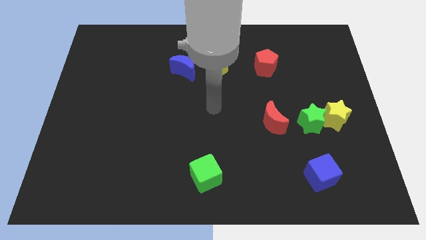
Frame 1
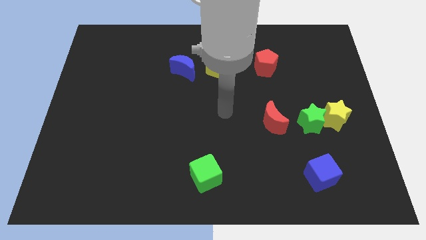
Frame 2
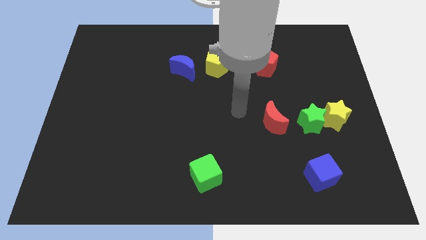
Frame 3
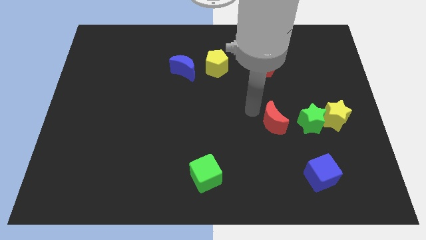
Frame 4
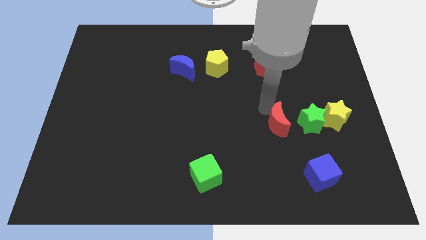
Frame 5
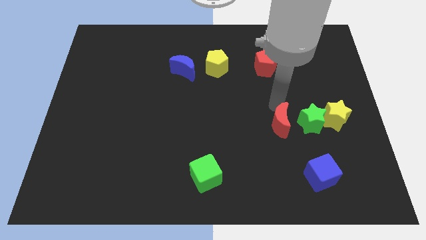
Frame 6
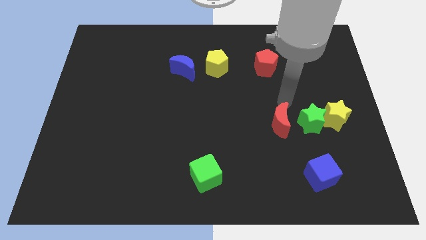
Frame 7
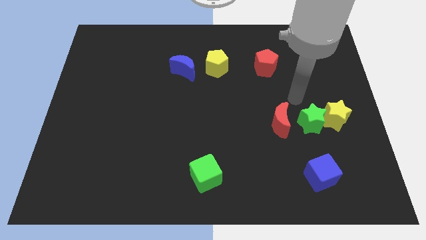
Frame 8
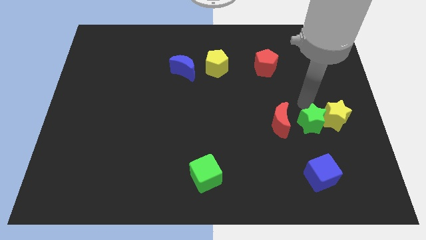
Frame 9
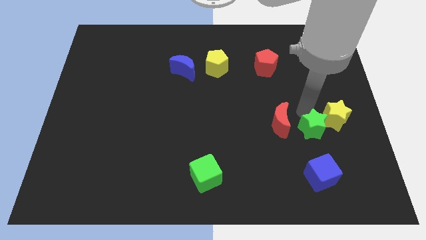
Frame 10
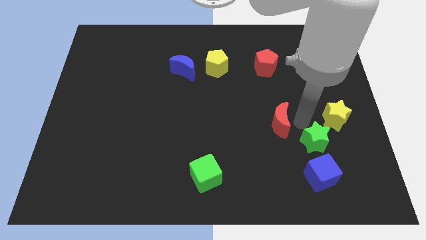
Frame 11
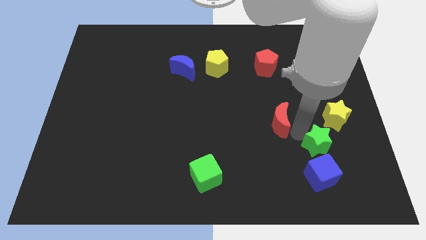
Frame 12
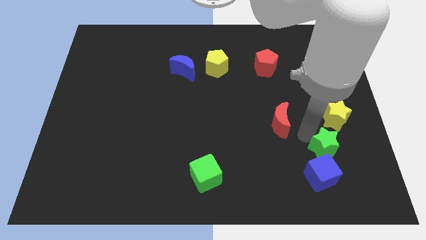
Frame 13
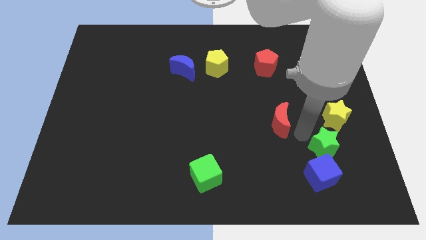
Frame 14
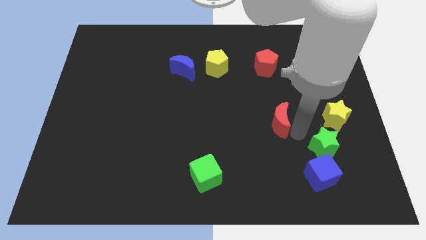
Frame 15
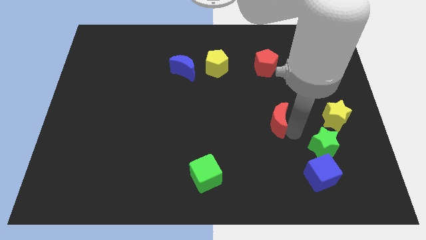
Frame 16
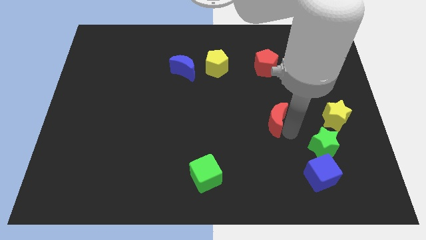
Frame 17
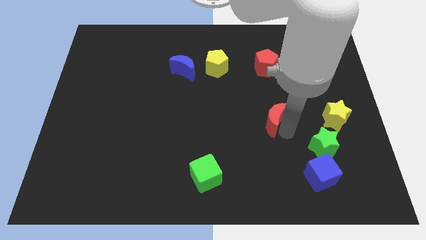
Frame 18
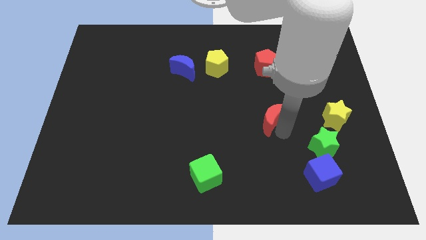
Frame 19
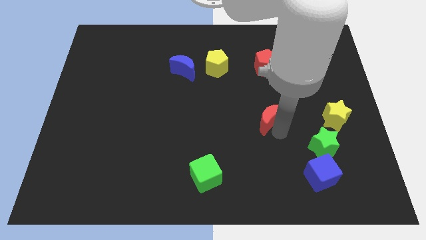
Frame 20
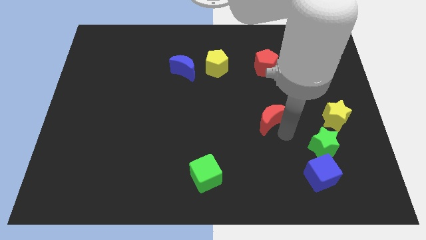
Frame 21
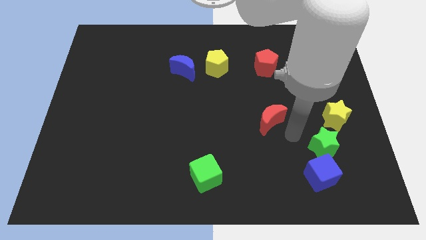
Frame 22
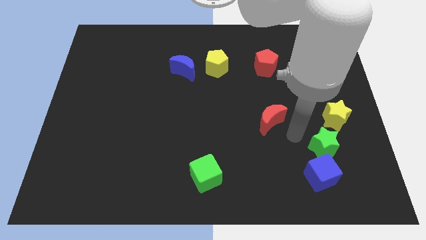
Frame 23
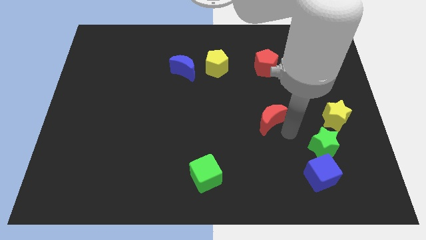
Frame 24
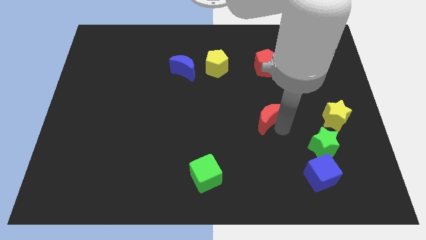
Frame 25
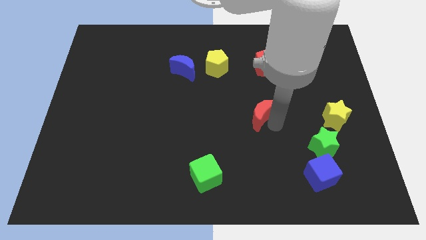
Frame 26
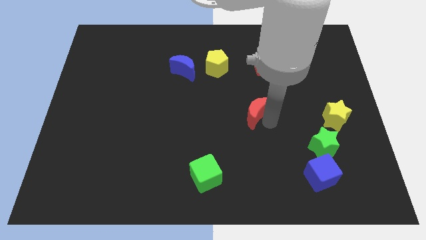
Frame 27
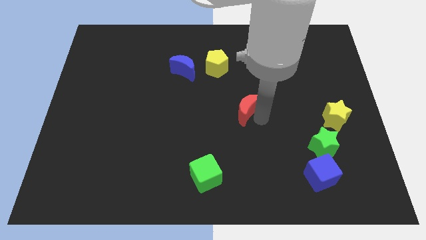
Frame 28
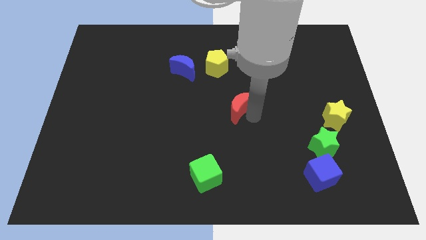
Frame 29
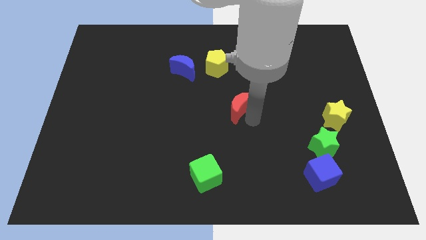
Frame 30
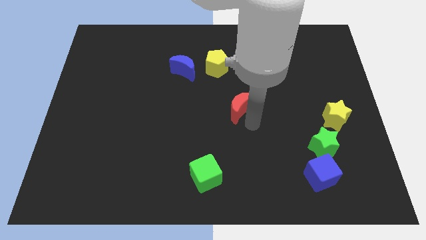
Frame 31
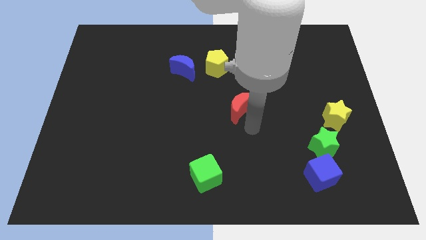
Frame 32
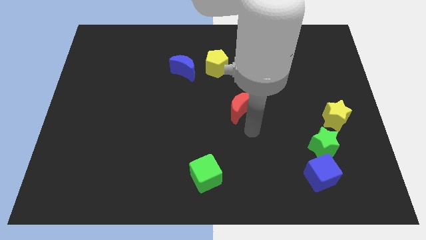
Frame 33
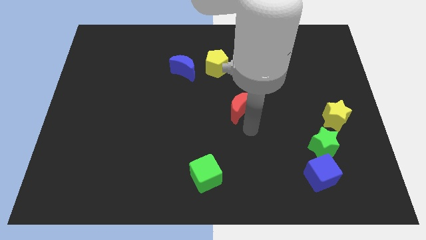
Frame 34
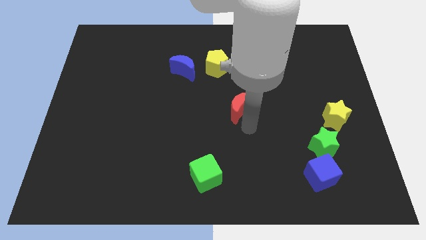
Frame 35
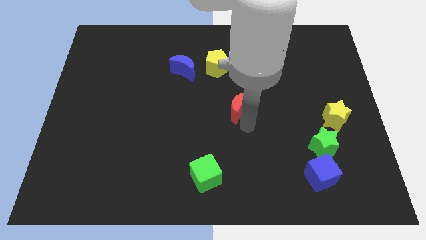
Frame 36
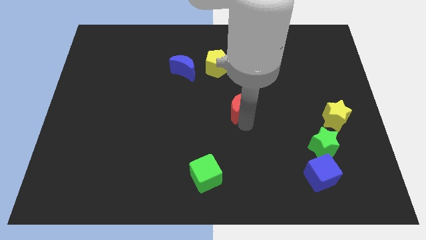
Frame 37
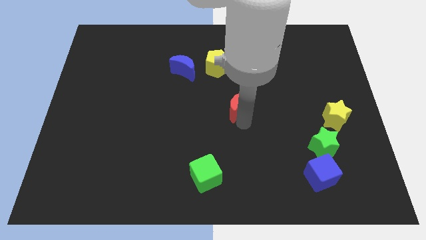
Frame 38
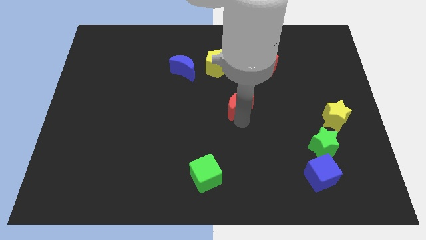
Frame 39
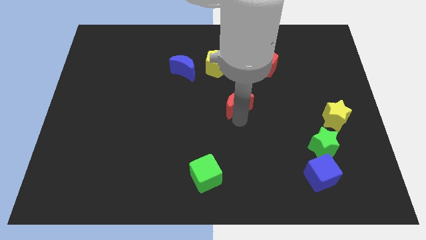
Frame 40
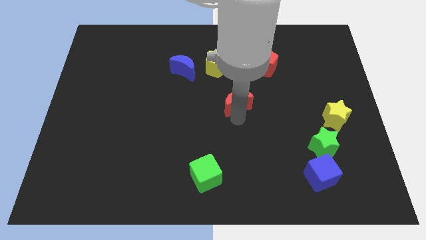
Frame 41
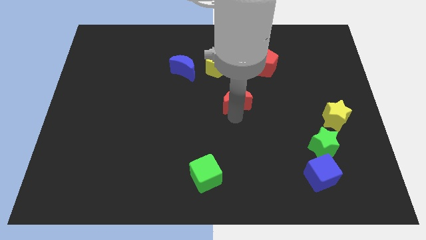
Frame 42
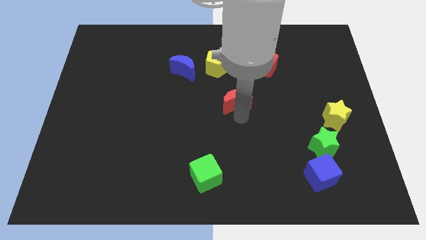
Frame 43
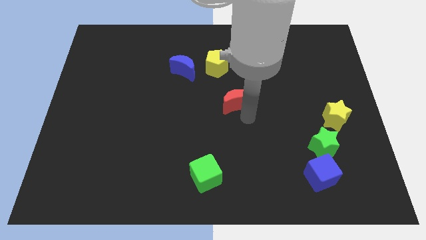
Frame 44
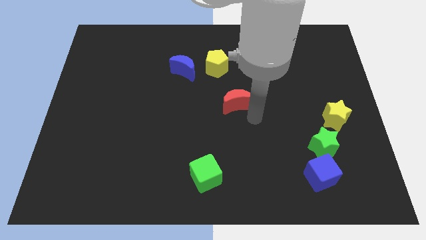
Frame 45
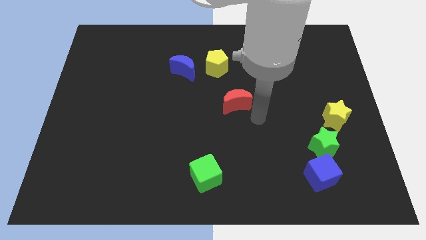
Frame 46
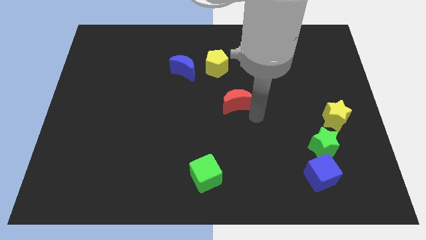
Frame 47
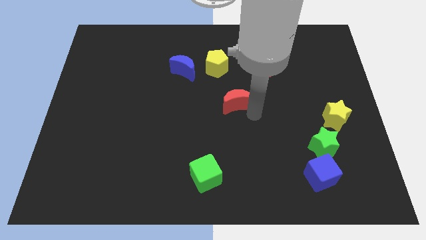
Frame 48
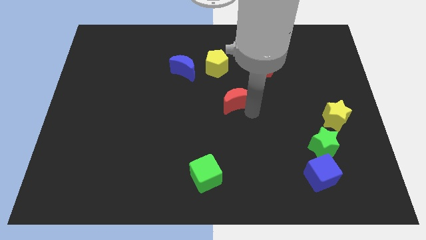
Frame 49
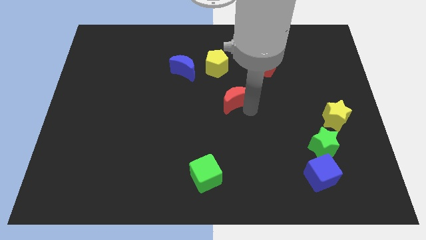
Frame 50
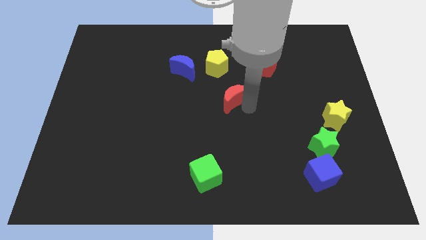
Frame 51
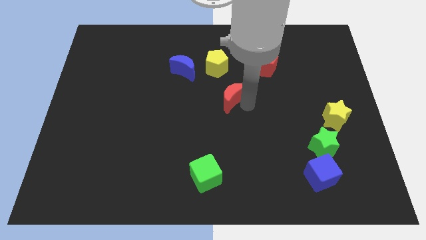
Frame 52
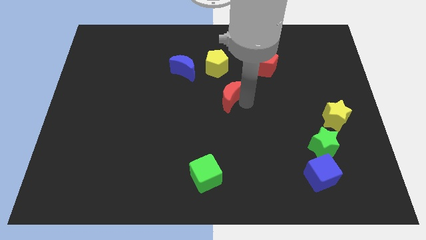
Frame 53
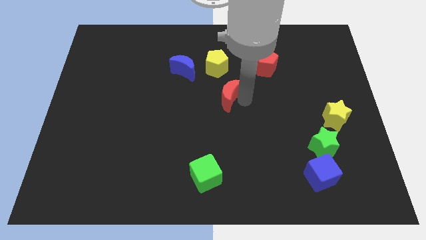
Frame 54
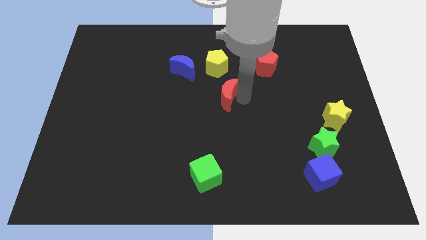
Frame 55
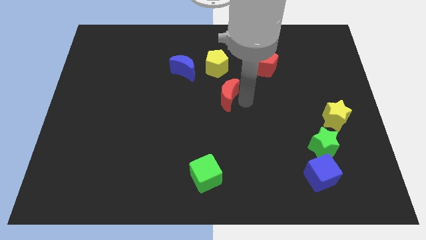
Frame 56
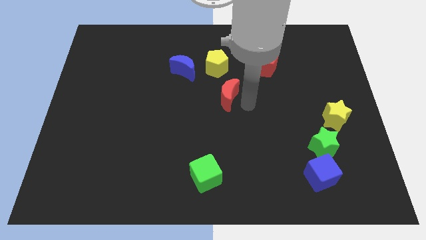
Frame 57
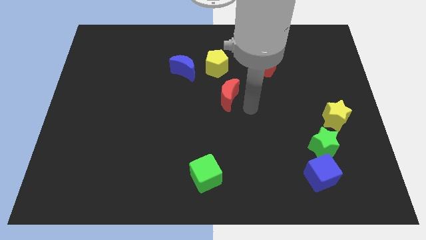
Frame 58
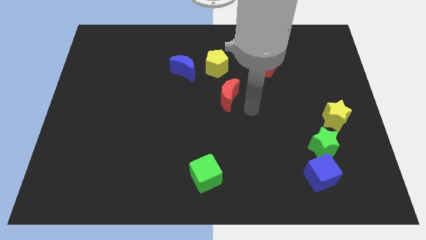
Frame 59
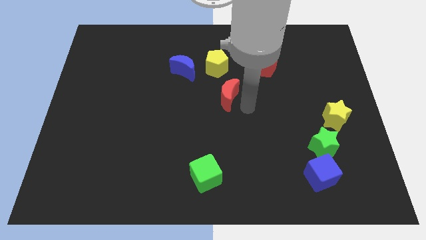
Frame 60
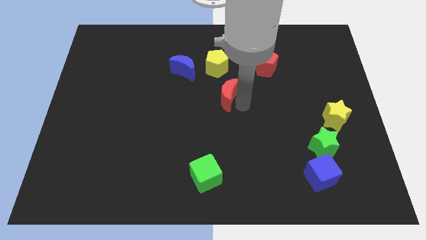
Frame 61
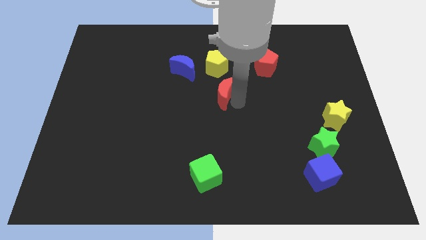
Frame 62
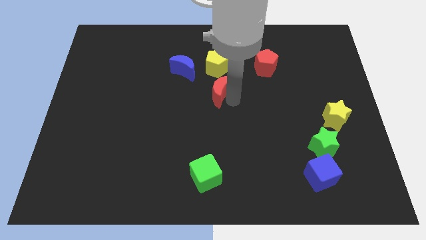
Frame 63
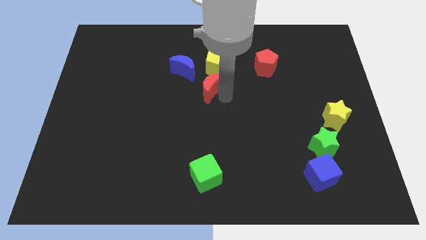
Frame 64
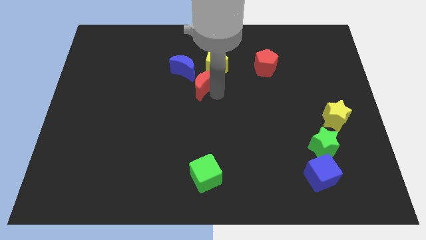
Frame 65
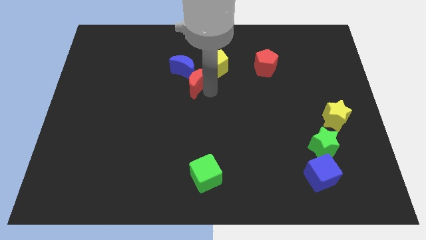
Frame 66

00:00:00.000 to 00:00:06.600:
put the red moon close to the blue moon

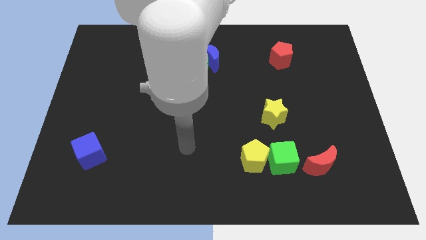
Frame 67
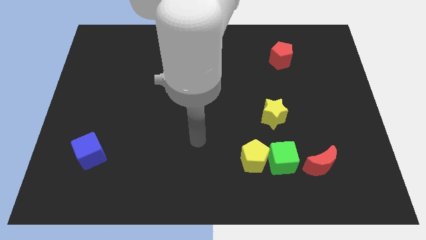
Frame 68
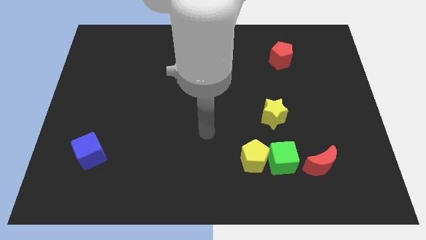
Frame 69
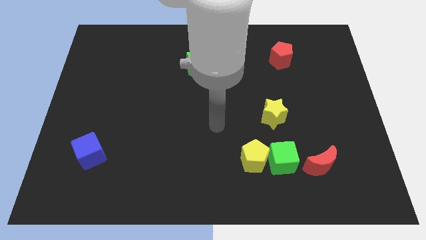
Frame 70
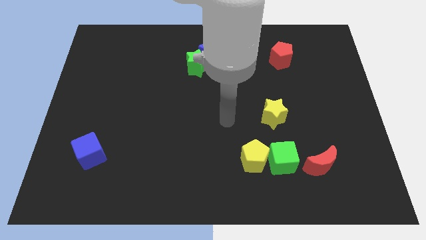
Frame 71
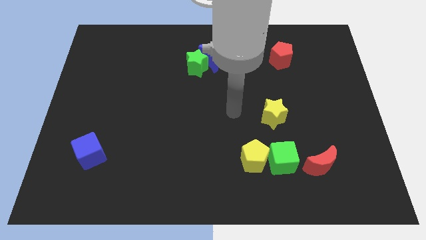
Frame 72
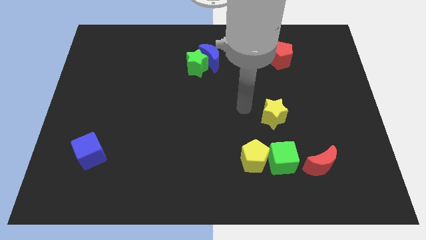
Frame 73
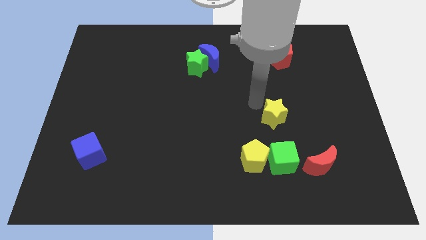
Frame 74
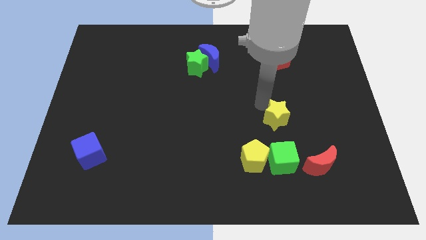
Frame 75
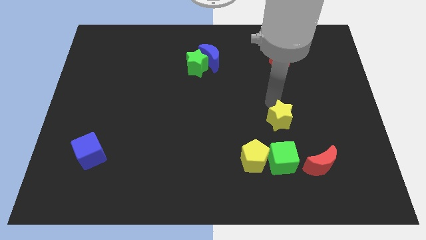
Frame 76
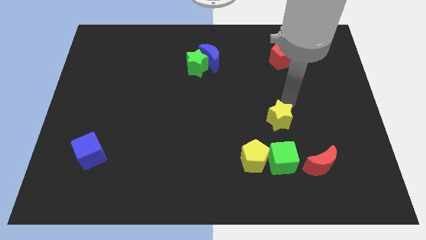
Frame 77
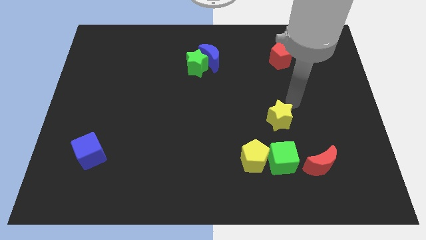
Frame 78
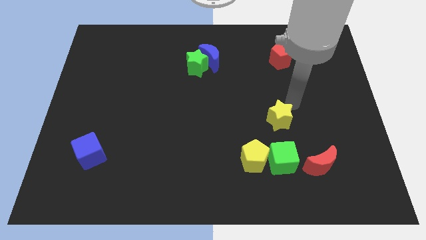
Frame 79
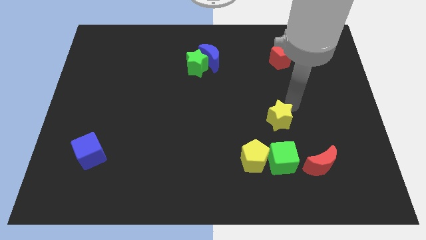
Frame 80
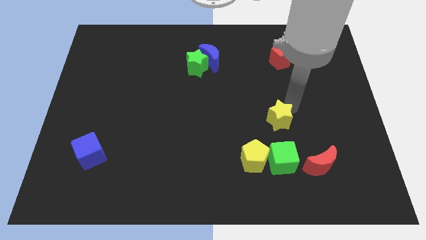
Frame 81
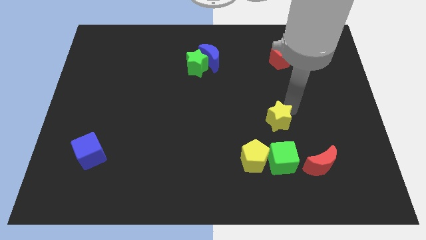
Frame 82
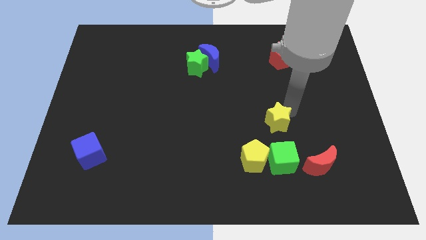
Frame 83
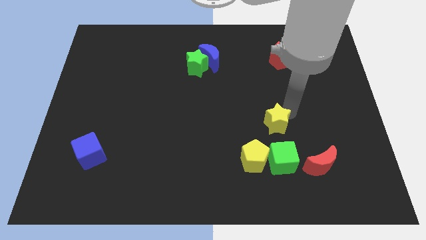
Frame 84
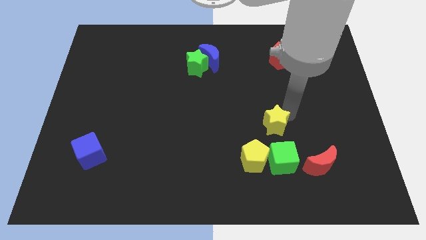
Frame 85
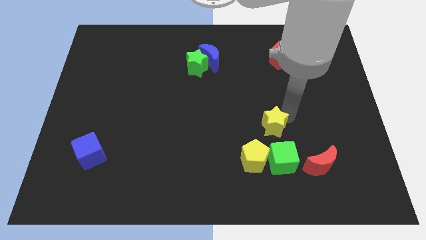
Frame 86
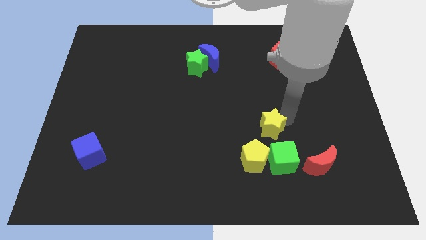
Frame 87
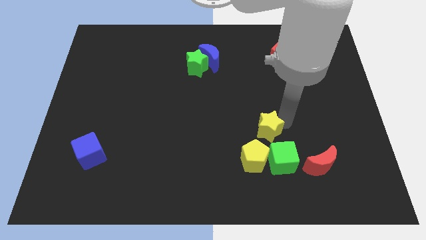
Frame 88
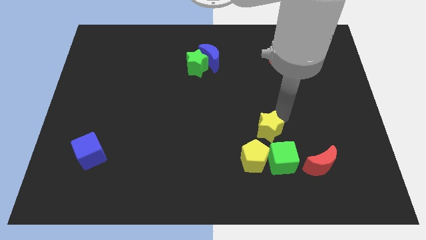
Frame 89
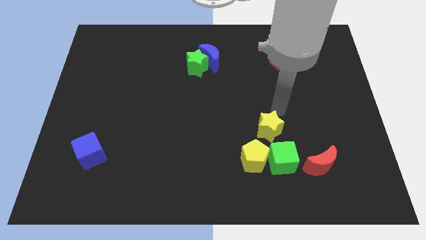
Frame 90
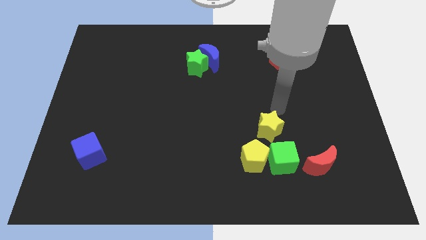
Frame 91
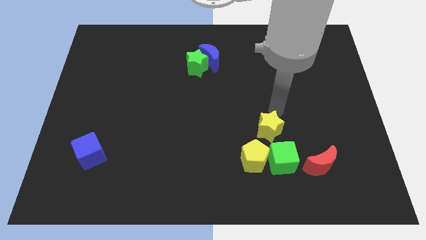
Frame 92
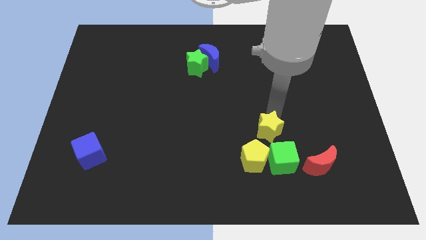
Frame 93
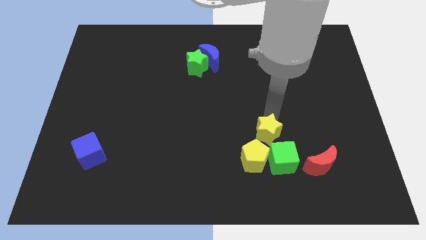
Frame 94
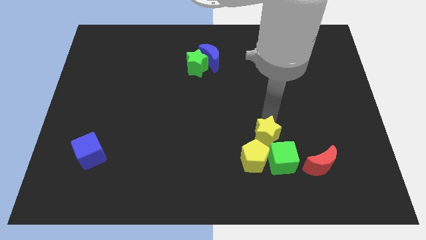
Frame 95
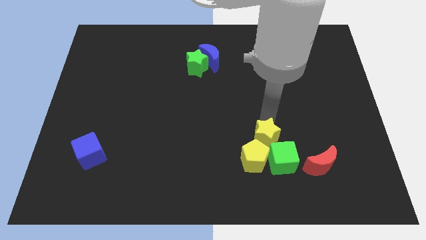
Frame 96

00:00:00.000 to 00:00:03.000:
move the yellow star to the yellow pentagon
